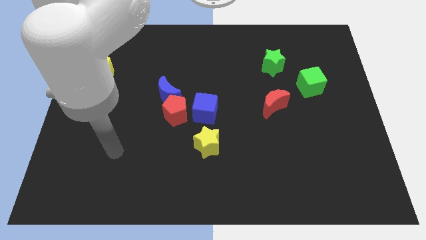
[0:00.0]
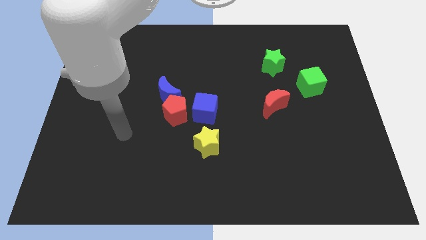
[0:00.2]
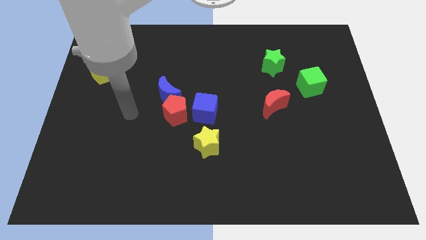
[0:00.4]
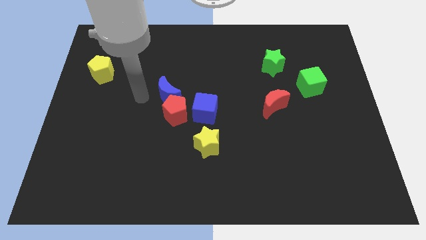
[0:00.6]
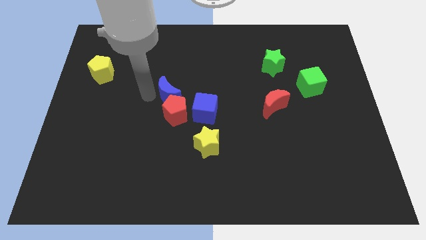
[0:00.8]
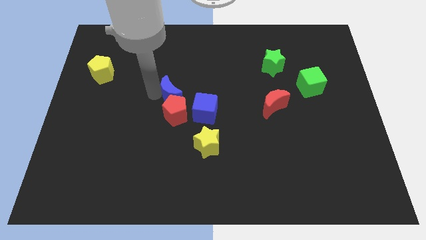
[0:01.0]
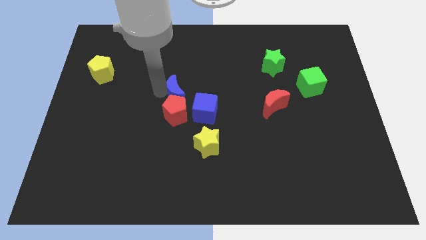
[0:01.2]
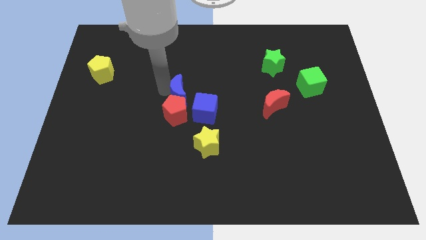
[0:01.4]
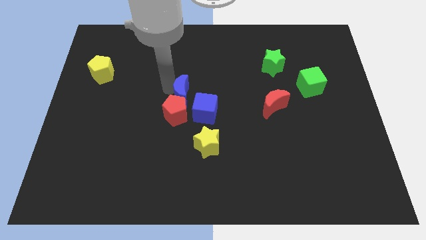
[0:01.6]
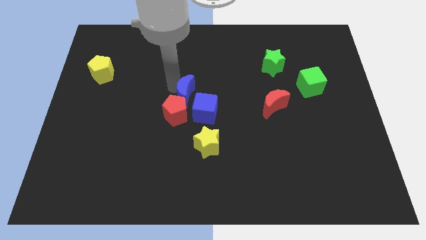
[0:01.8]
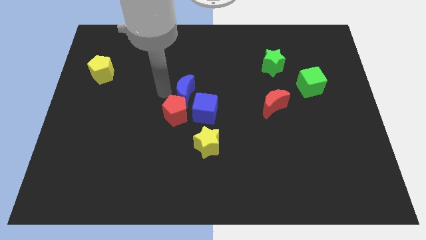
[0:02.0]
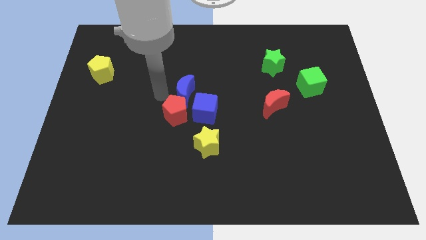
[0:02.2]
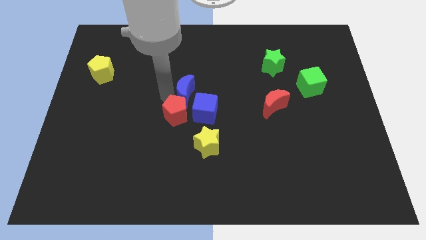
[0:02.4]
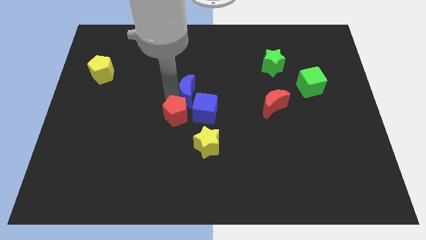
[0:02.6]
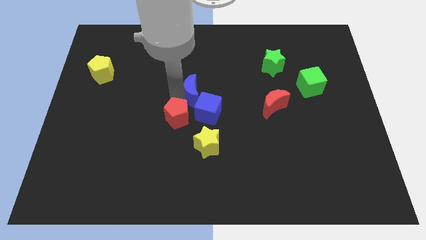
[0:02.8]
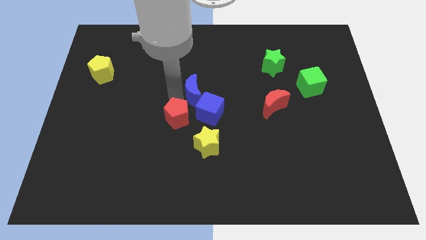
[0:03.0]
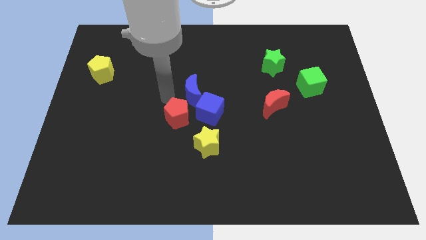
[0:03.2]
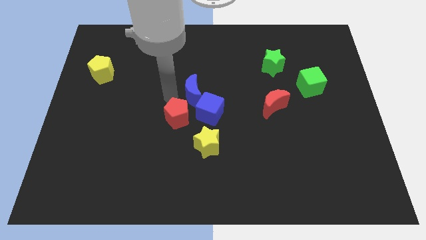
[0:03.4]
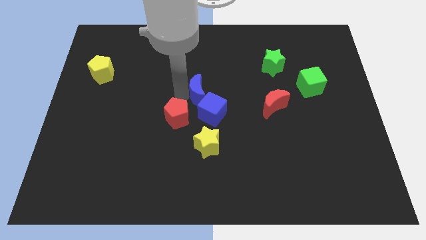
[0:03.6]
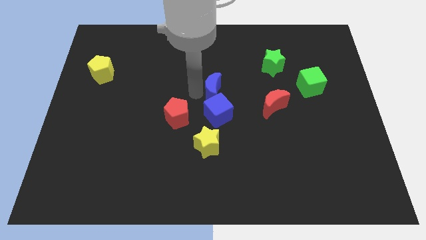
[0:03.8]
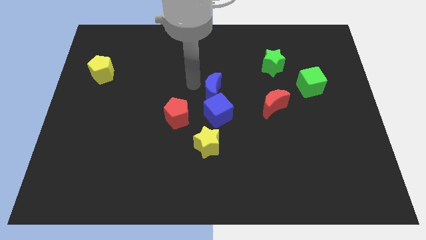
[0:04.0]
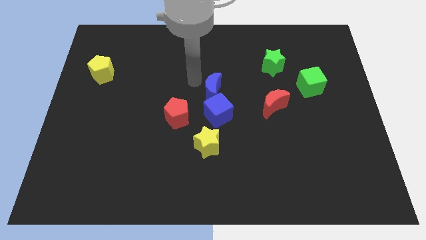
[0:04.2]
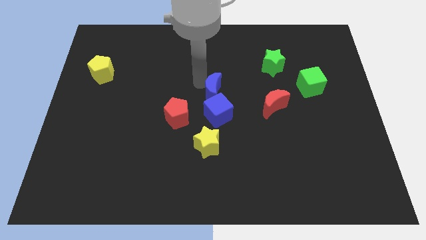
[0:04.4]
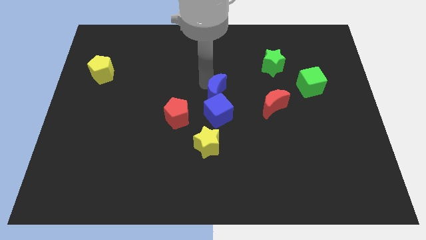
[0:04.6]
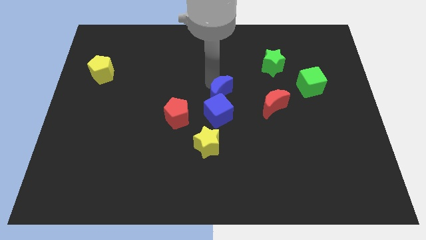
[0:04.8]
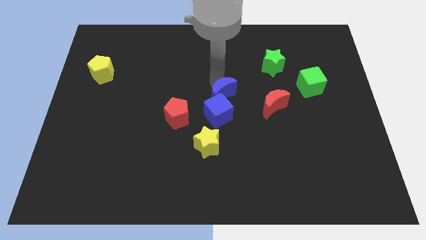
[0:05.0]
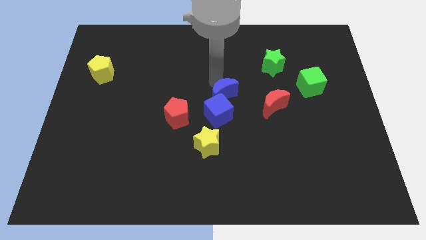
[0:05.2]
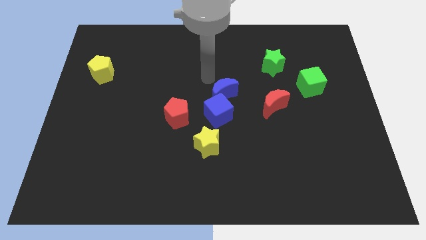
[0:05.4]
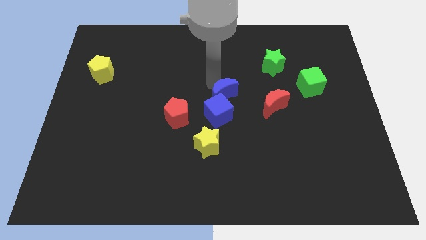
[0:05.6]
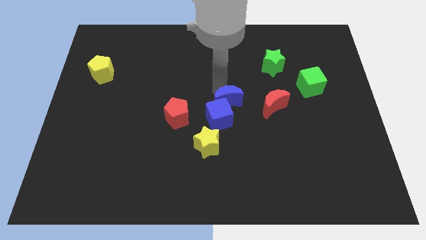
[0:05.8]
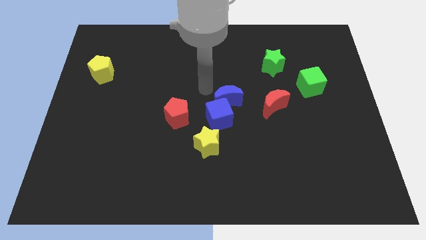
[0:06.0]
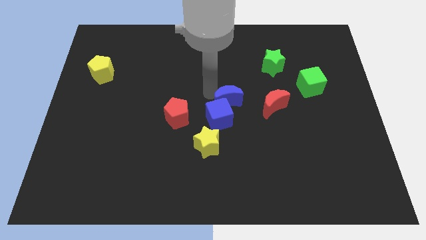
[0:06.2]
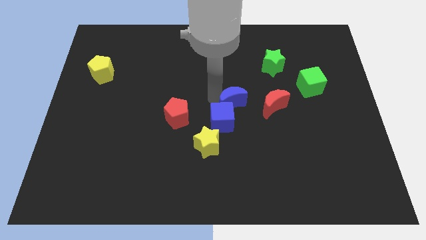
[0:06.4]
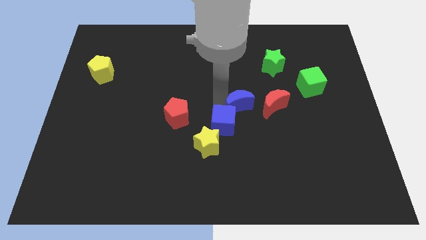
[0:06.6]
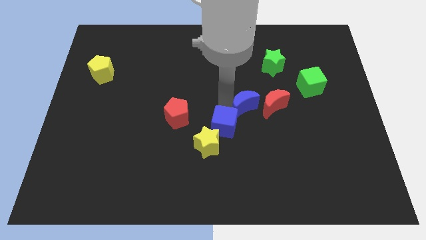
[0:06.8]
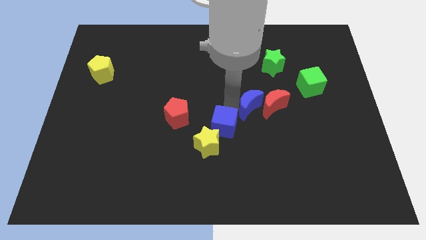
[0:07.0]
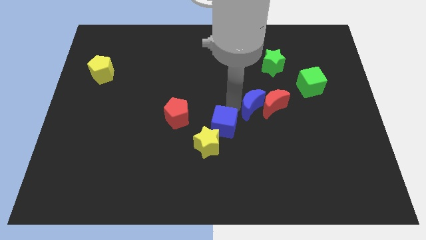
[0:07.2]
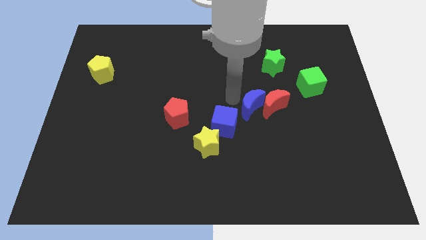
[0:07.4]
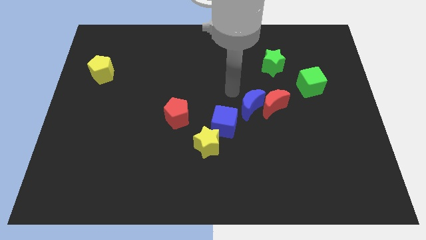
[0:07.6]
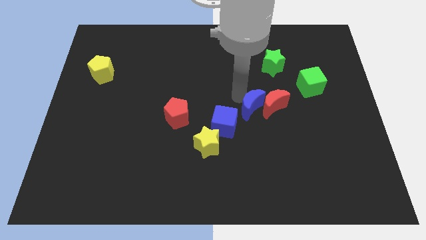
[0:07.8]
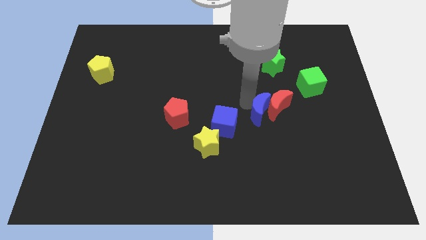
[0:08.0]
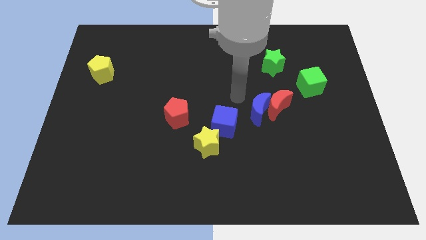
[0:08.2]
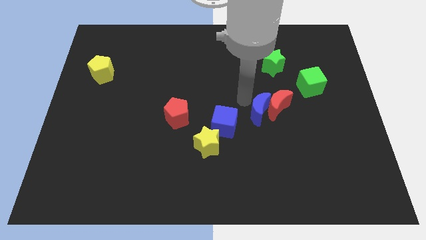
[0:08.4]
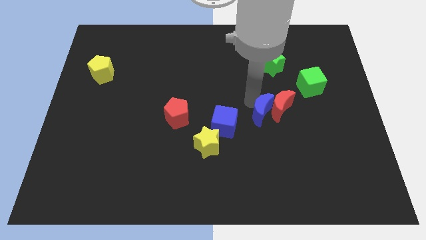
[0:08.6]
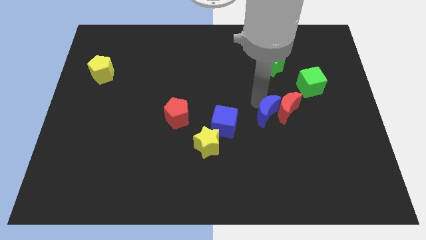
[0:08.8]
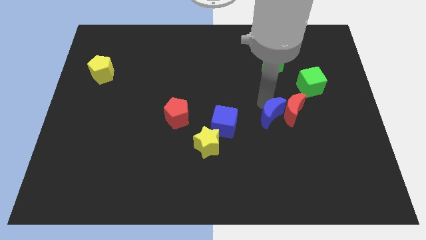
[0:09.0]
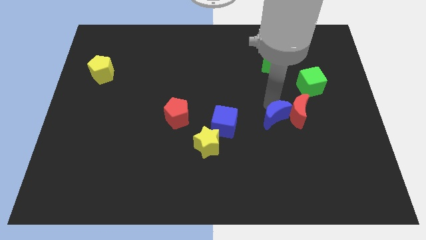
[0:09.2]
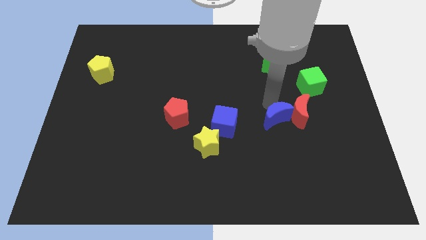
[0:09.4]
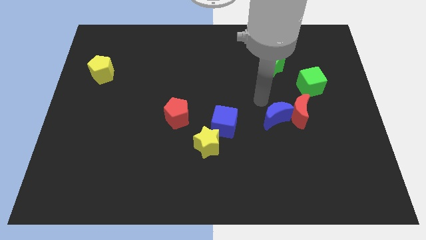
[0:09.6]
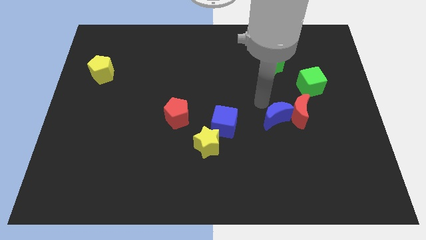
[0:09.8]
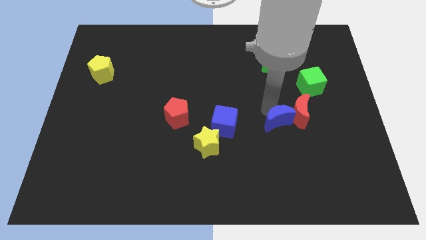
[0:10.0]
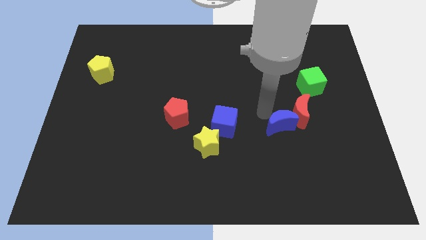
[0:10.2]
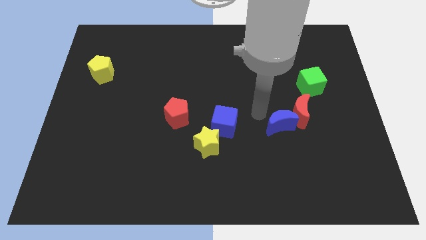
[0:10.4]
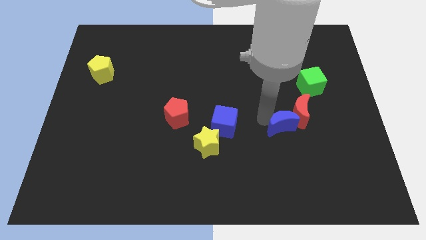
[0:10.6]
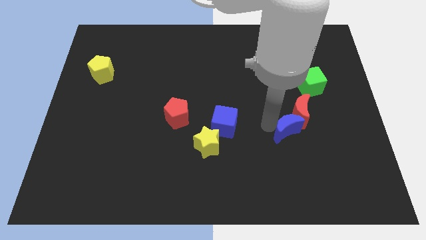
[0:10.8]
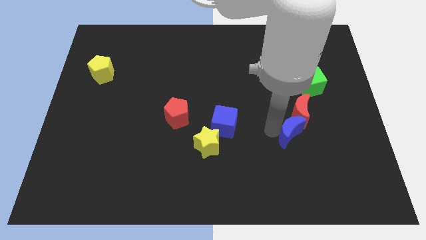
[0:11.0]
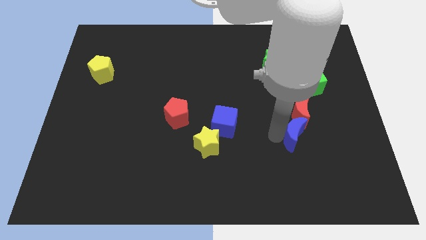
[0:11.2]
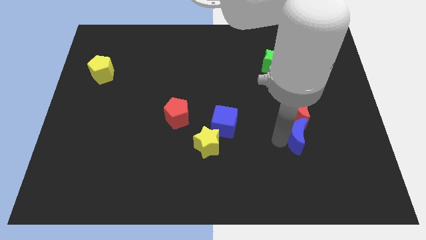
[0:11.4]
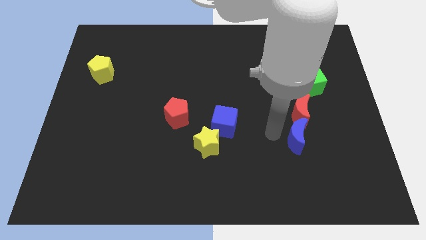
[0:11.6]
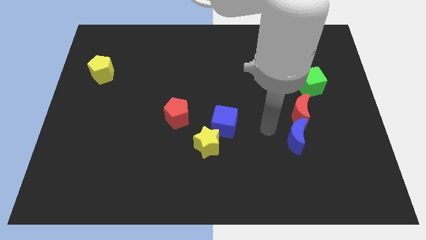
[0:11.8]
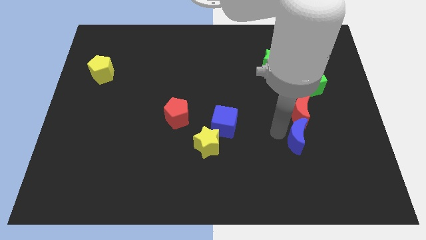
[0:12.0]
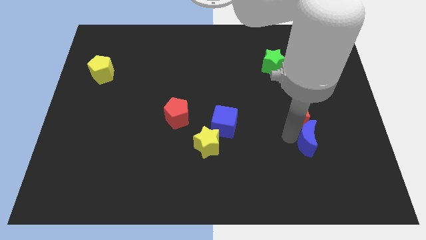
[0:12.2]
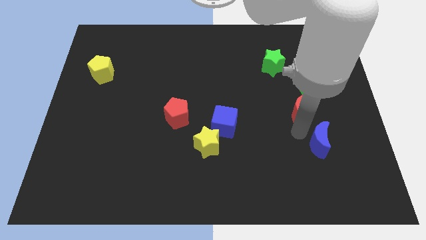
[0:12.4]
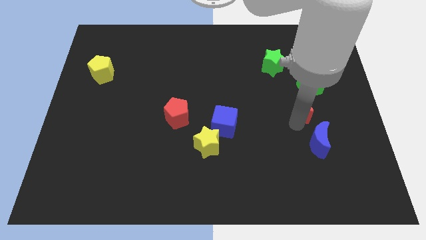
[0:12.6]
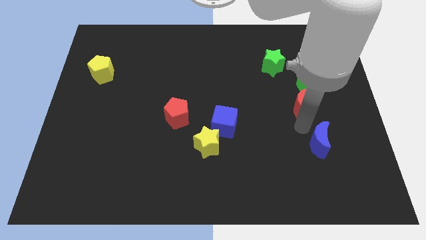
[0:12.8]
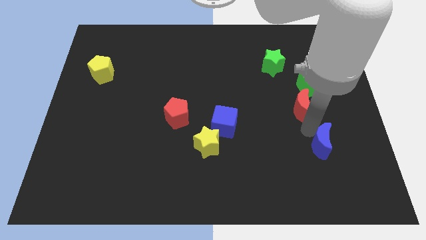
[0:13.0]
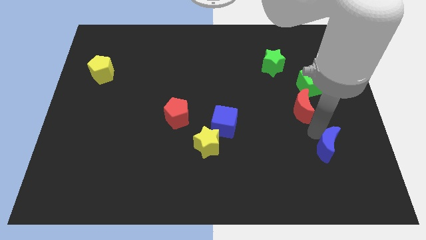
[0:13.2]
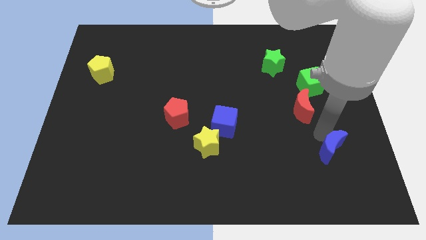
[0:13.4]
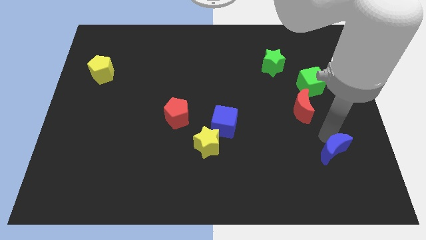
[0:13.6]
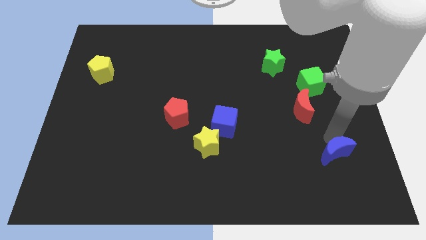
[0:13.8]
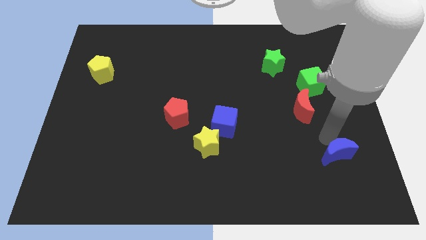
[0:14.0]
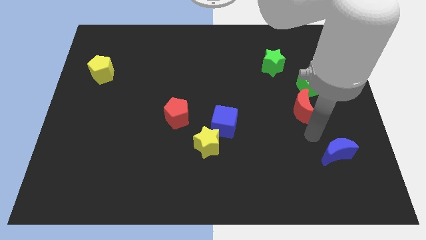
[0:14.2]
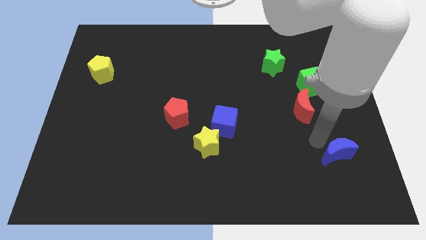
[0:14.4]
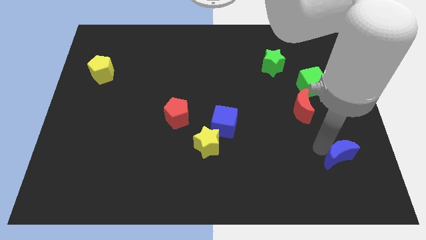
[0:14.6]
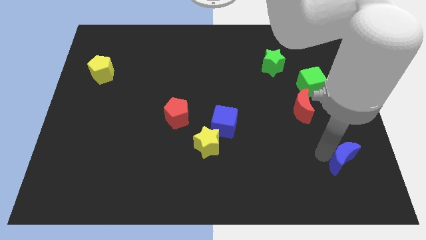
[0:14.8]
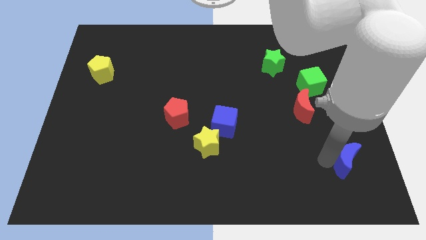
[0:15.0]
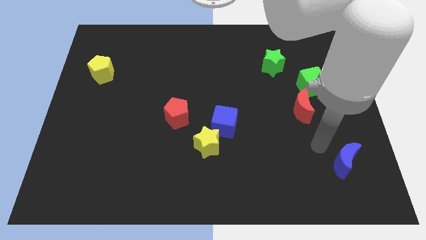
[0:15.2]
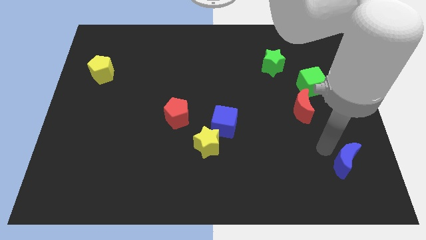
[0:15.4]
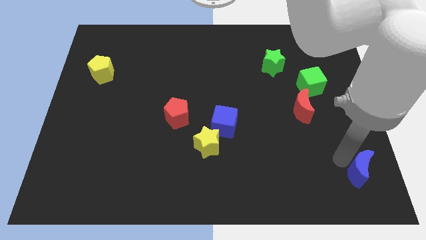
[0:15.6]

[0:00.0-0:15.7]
move the blue moon to the bottom right of the board
